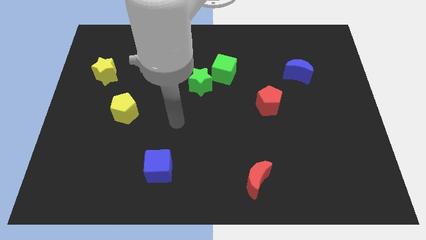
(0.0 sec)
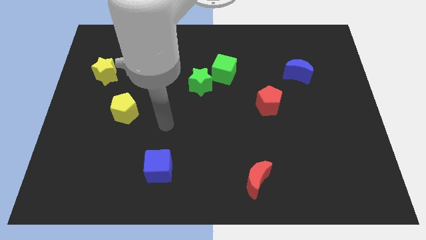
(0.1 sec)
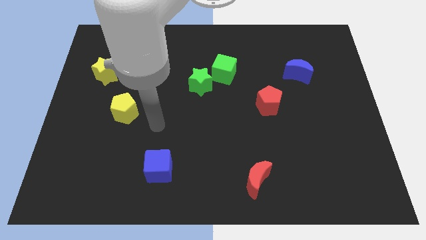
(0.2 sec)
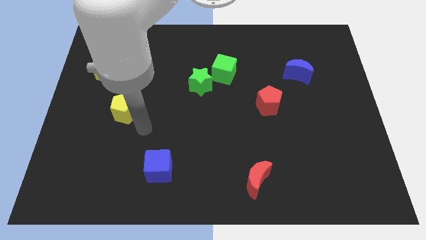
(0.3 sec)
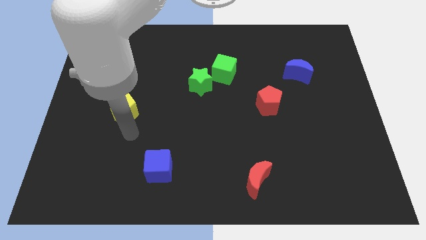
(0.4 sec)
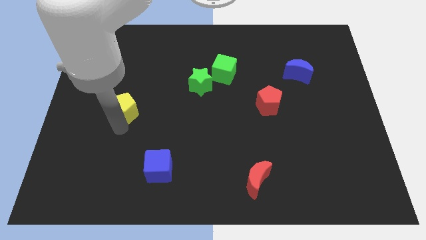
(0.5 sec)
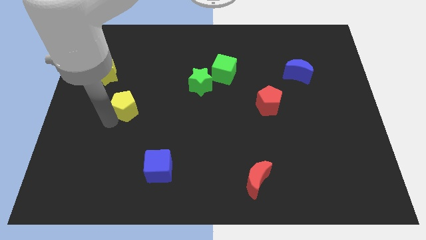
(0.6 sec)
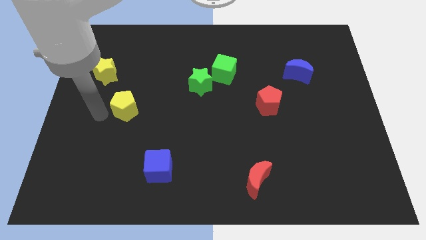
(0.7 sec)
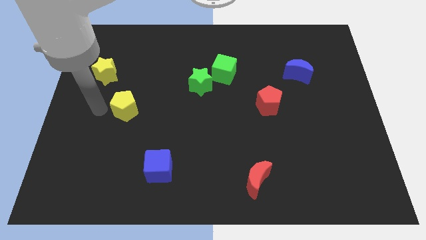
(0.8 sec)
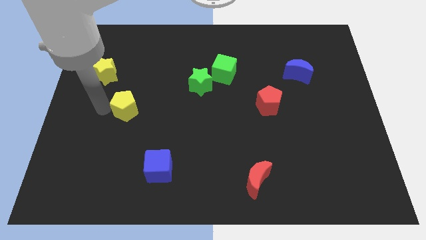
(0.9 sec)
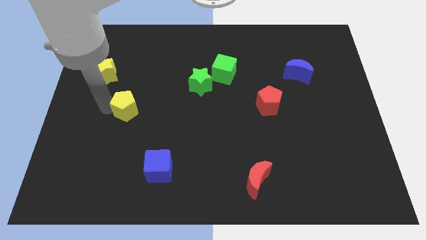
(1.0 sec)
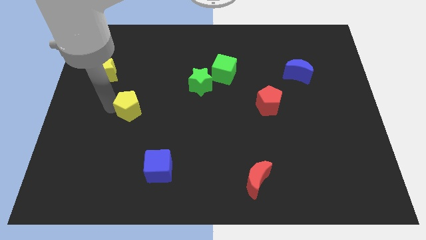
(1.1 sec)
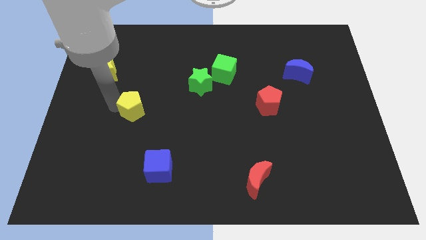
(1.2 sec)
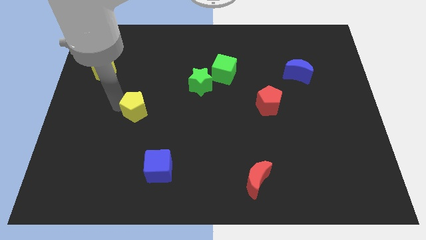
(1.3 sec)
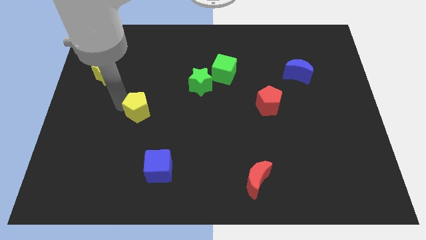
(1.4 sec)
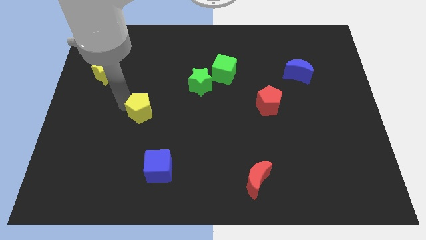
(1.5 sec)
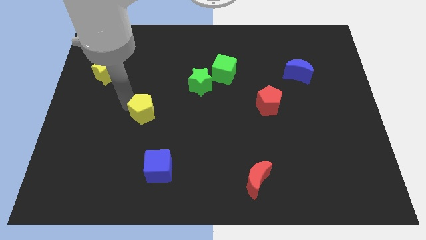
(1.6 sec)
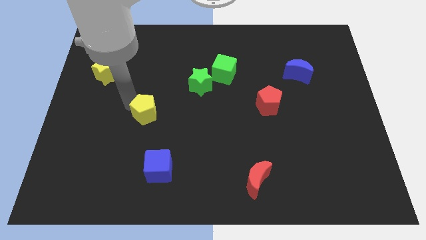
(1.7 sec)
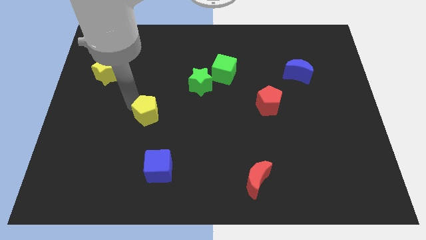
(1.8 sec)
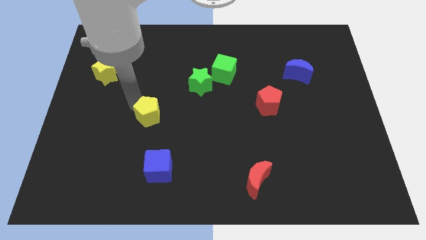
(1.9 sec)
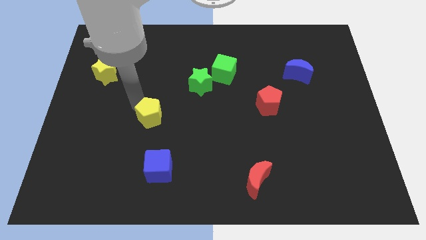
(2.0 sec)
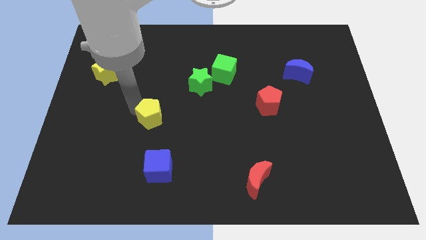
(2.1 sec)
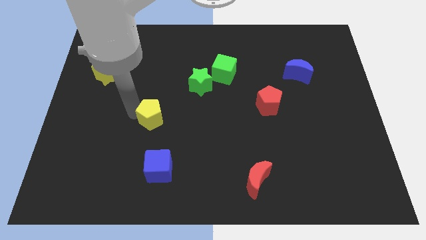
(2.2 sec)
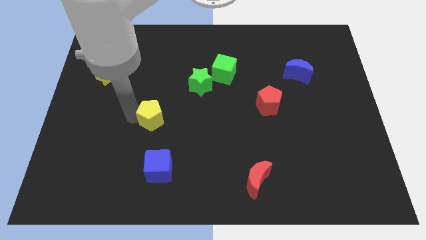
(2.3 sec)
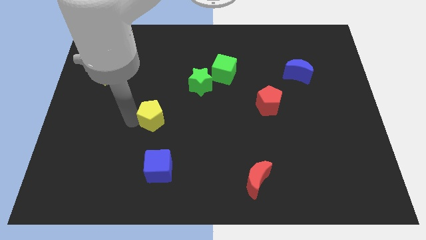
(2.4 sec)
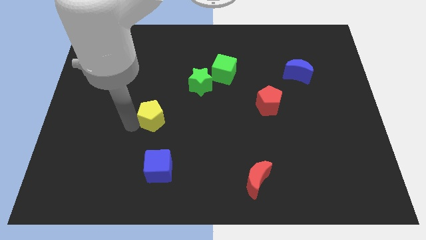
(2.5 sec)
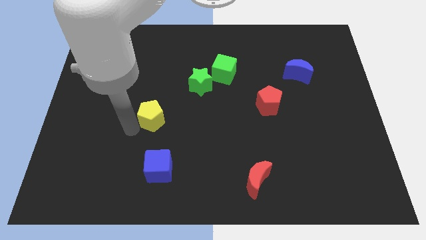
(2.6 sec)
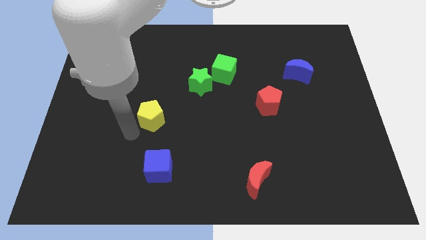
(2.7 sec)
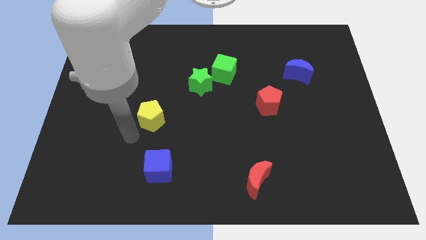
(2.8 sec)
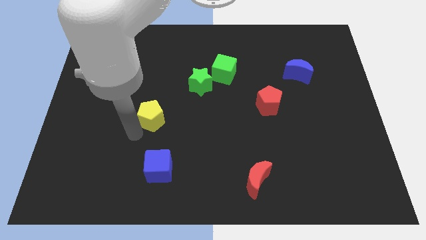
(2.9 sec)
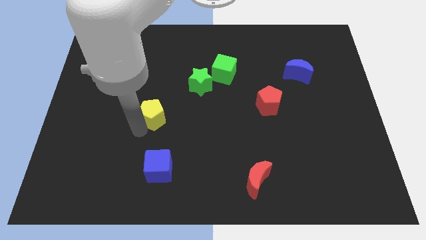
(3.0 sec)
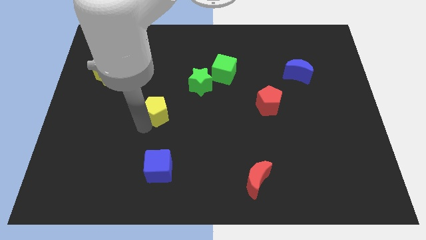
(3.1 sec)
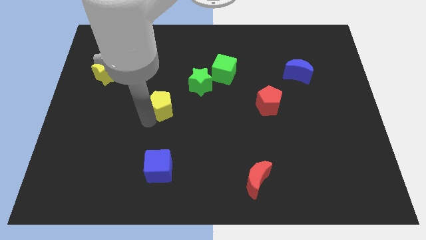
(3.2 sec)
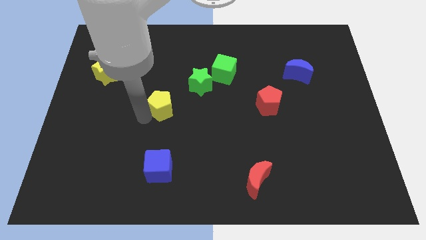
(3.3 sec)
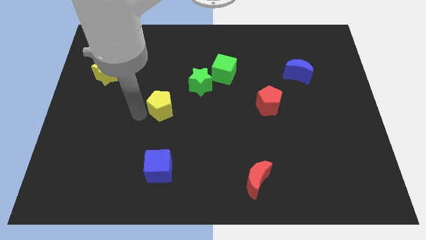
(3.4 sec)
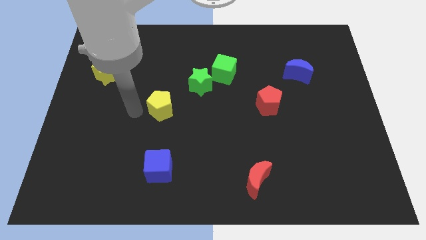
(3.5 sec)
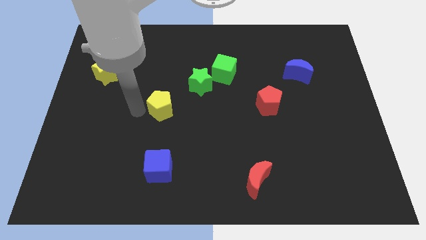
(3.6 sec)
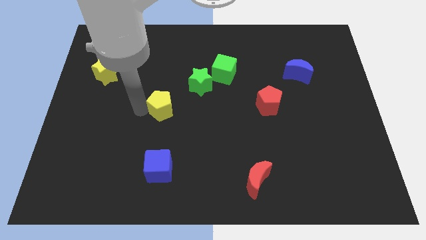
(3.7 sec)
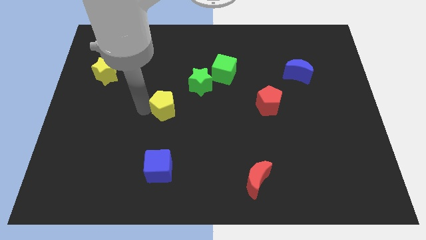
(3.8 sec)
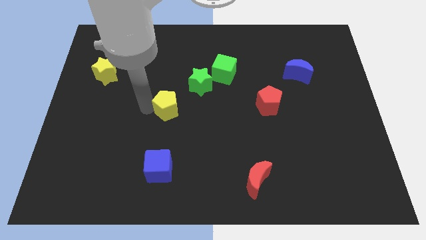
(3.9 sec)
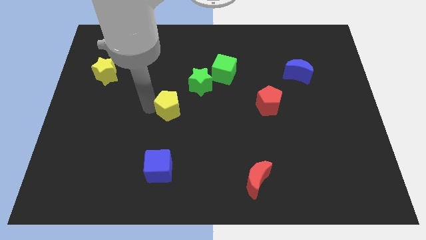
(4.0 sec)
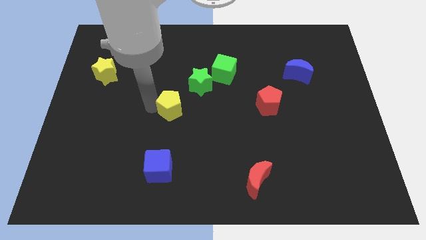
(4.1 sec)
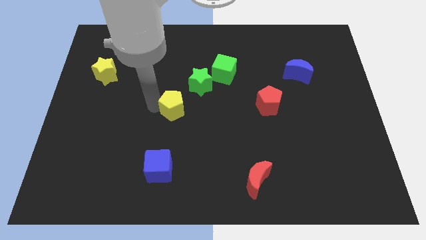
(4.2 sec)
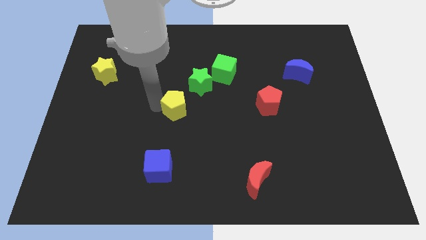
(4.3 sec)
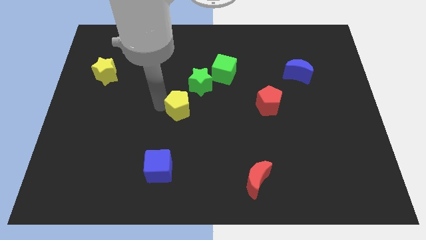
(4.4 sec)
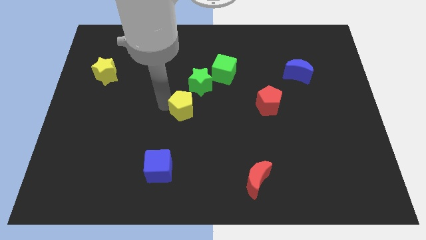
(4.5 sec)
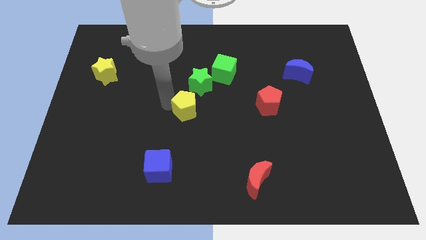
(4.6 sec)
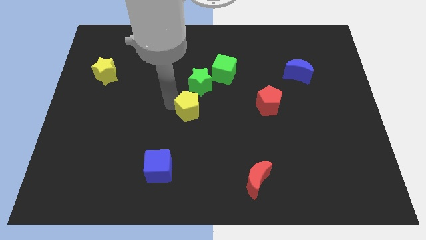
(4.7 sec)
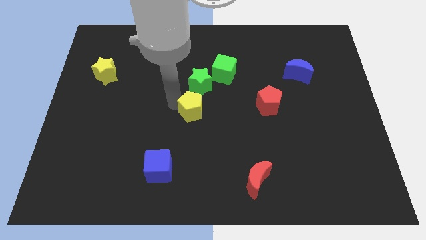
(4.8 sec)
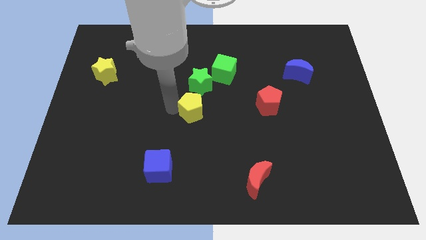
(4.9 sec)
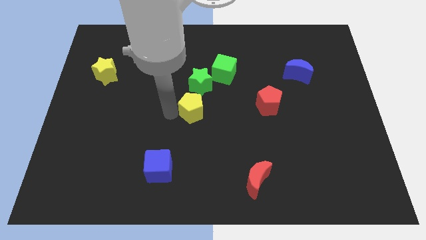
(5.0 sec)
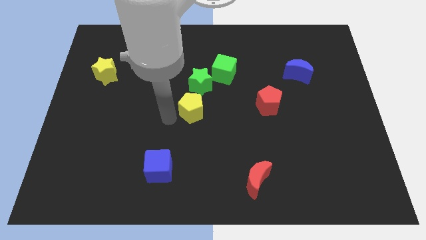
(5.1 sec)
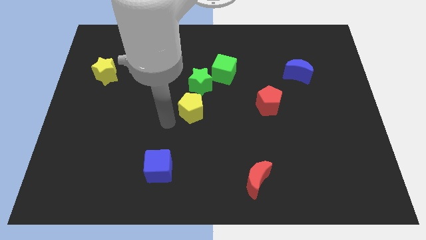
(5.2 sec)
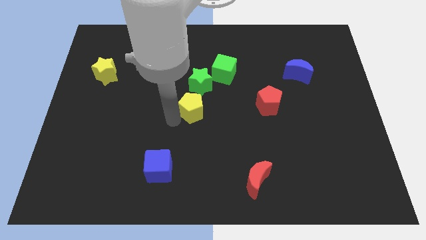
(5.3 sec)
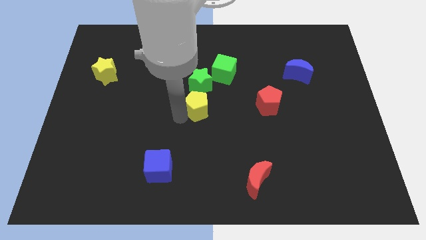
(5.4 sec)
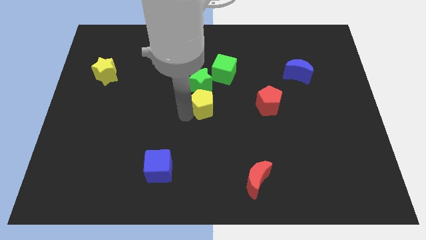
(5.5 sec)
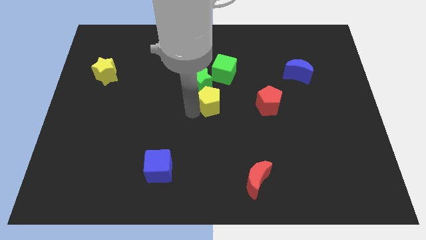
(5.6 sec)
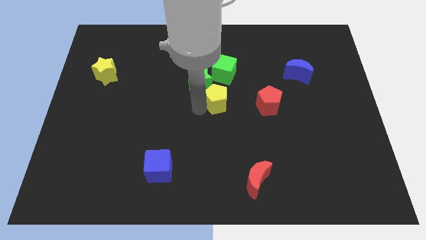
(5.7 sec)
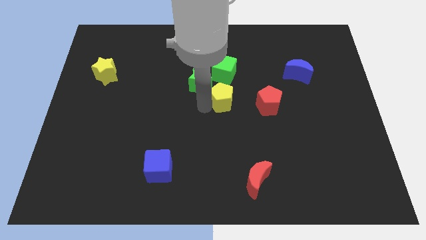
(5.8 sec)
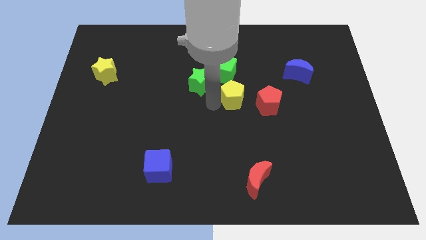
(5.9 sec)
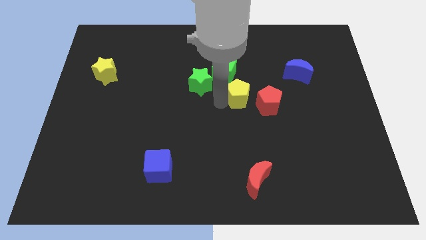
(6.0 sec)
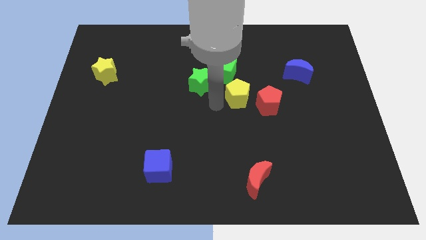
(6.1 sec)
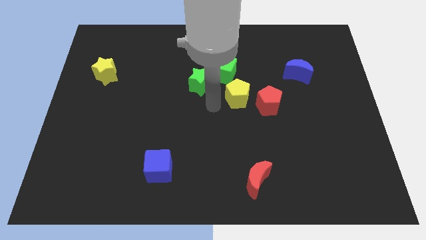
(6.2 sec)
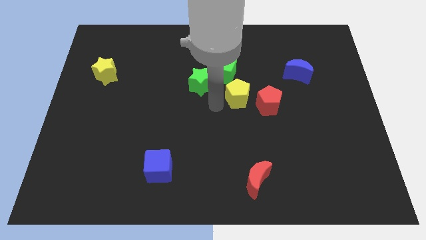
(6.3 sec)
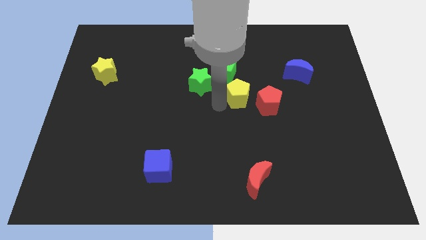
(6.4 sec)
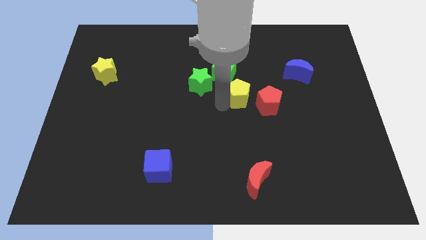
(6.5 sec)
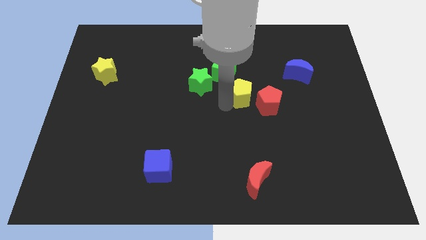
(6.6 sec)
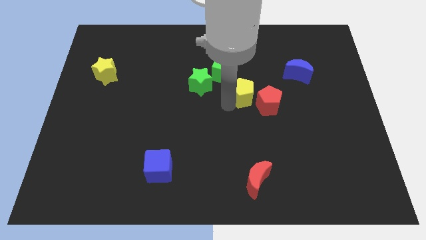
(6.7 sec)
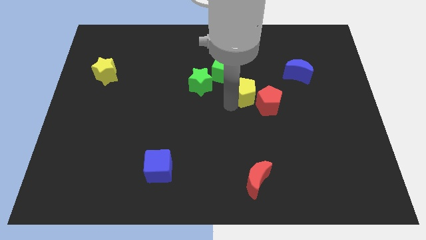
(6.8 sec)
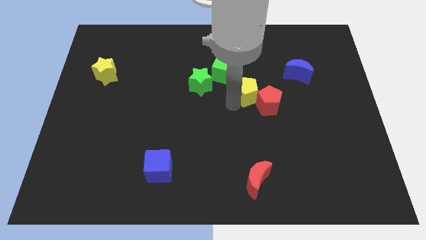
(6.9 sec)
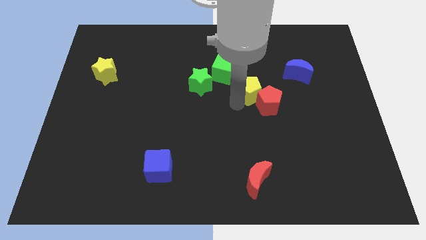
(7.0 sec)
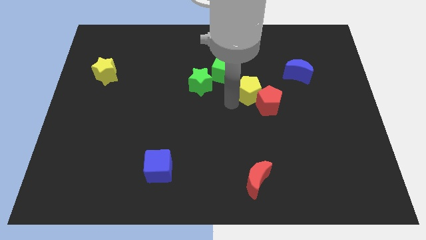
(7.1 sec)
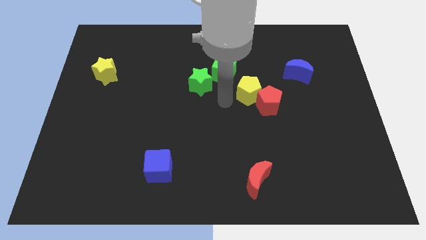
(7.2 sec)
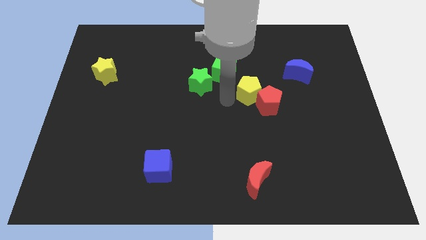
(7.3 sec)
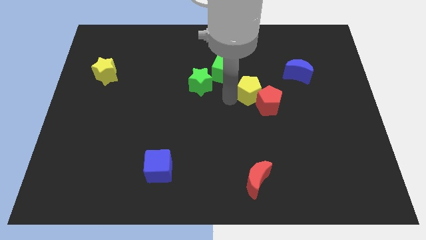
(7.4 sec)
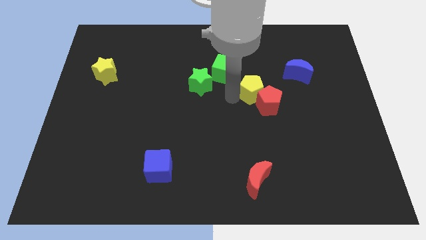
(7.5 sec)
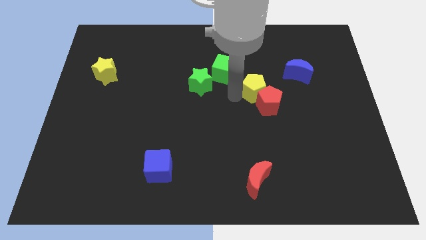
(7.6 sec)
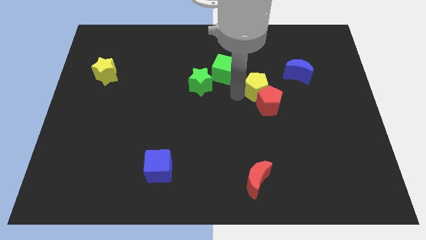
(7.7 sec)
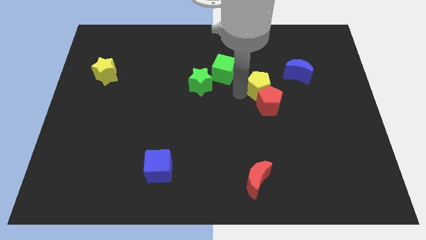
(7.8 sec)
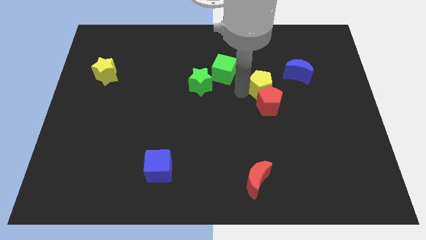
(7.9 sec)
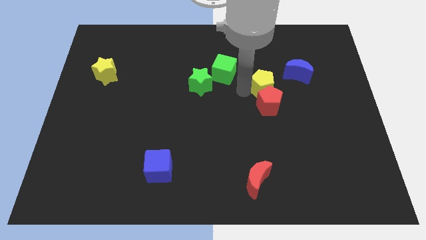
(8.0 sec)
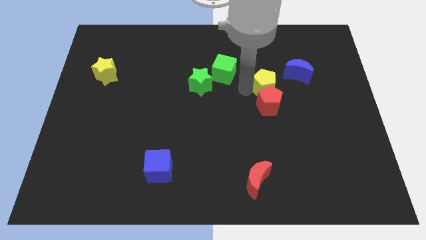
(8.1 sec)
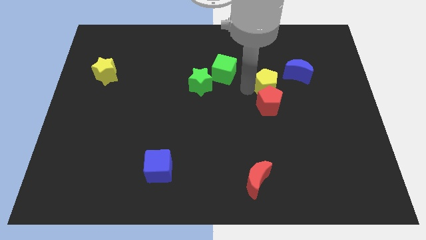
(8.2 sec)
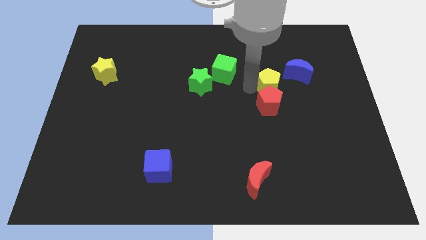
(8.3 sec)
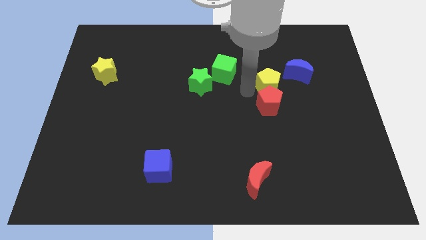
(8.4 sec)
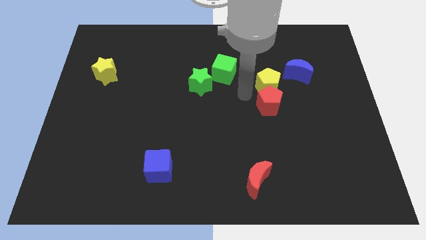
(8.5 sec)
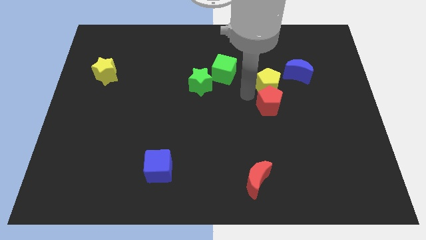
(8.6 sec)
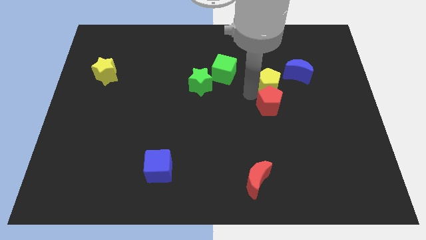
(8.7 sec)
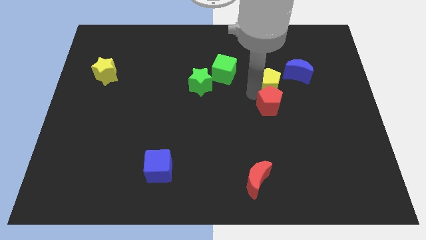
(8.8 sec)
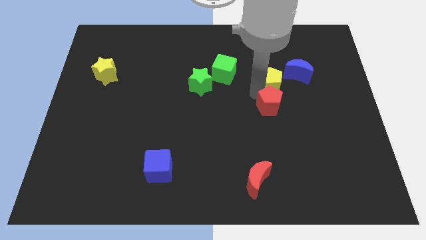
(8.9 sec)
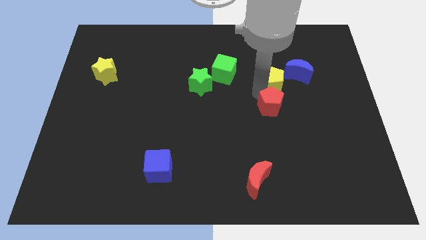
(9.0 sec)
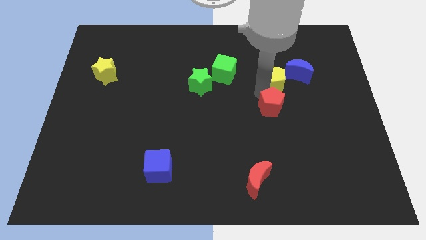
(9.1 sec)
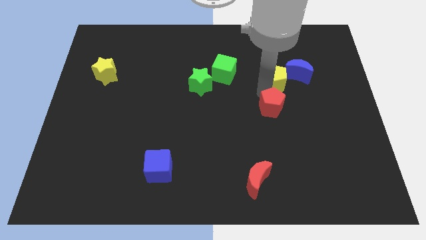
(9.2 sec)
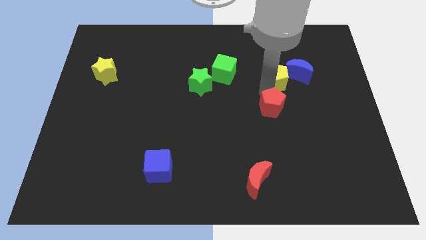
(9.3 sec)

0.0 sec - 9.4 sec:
push the yellow pentagon next to the blue moon
